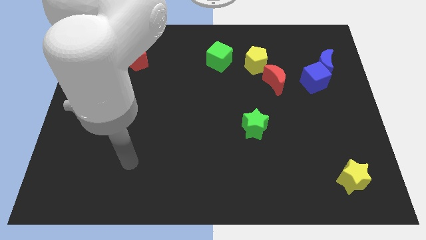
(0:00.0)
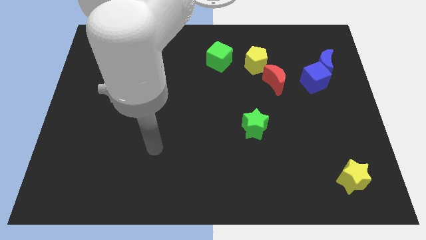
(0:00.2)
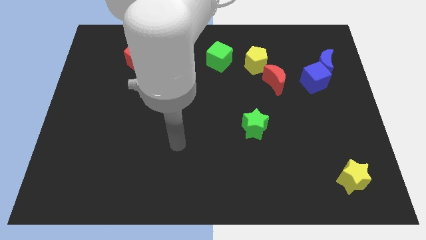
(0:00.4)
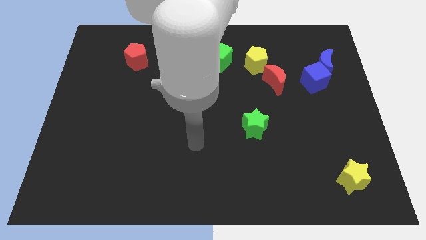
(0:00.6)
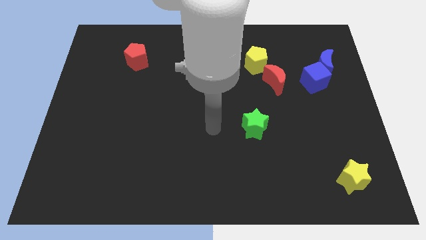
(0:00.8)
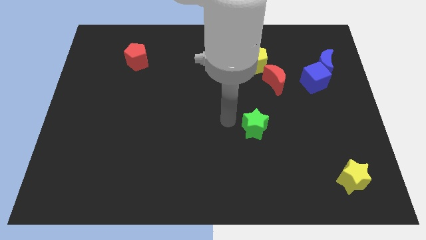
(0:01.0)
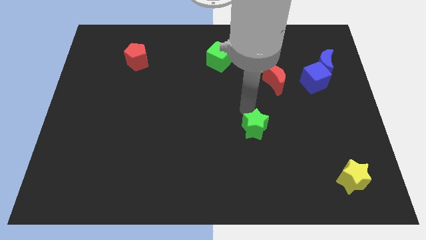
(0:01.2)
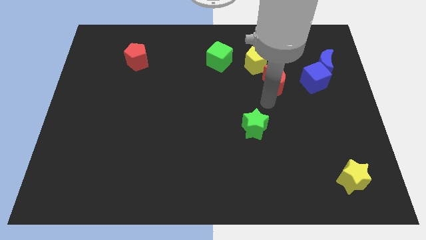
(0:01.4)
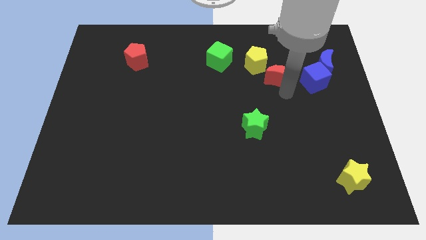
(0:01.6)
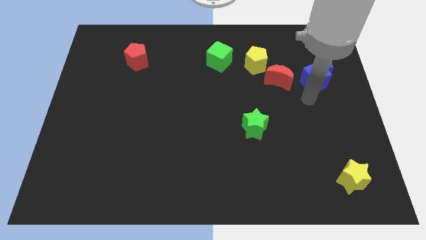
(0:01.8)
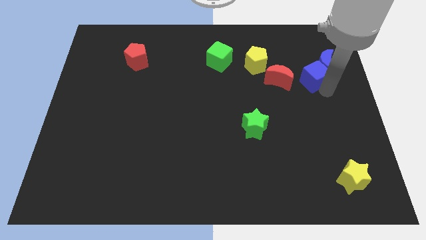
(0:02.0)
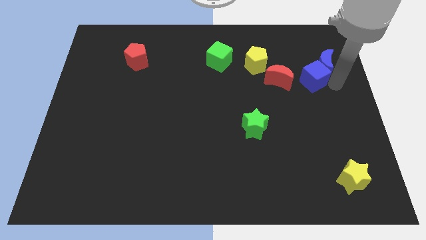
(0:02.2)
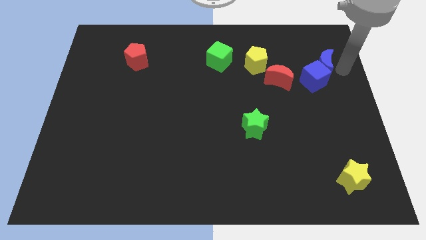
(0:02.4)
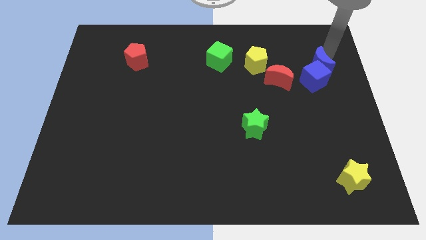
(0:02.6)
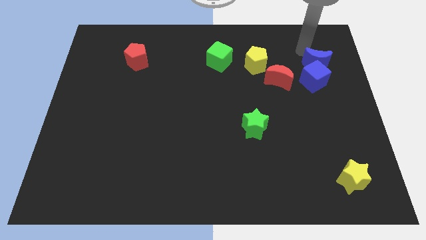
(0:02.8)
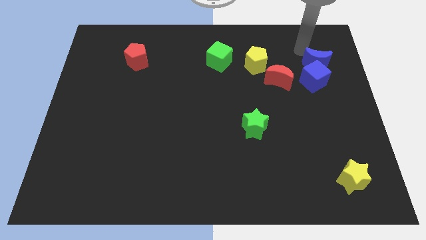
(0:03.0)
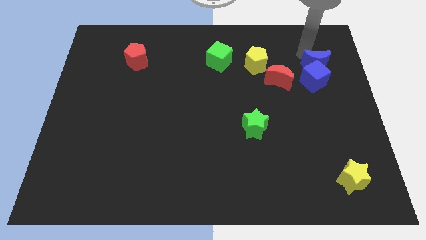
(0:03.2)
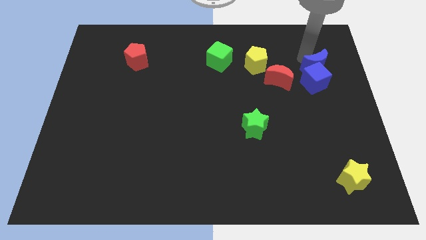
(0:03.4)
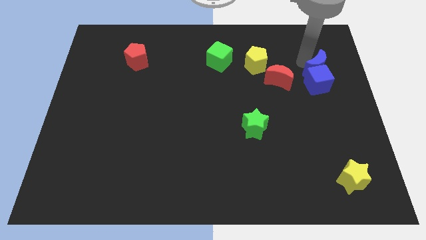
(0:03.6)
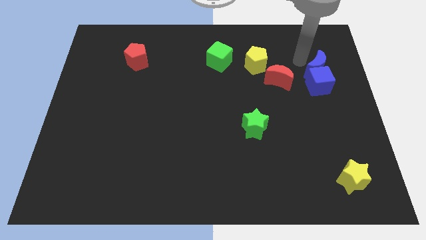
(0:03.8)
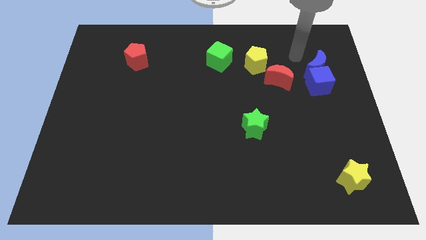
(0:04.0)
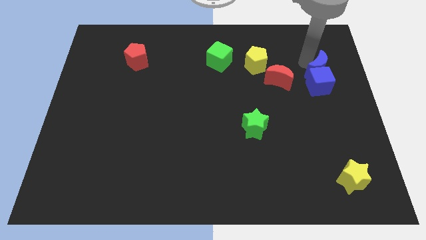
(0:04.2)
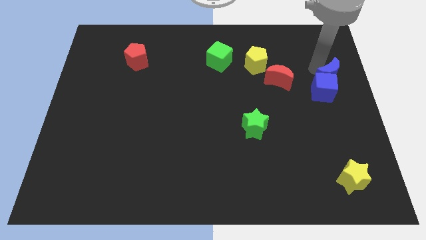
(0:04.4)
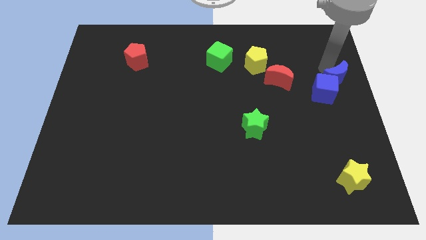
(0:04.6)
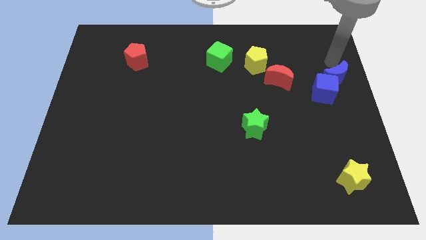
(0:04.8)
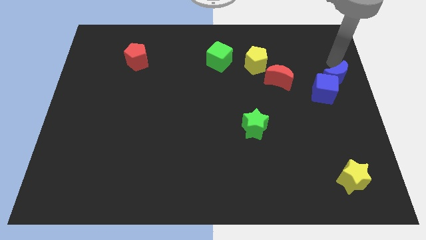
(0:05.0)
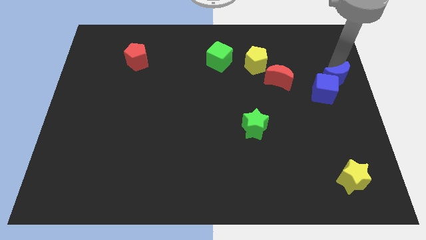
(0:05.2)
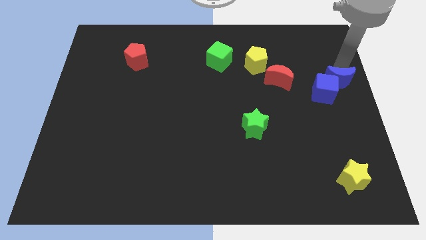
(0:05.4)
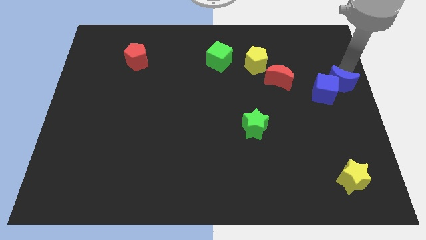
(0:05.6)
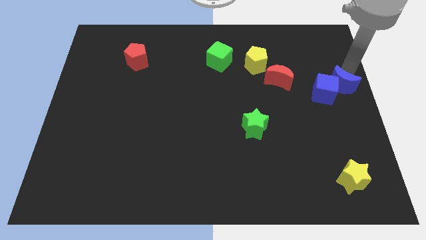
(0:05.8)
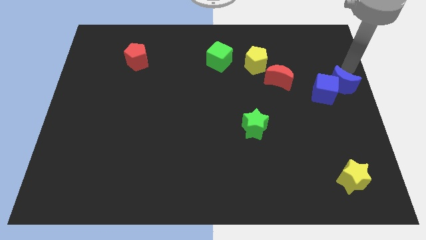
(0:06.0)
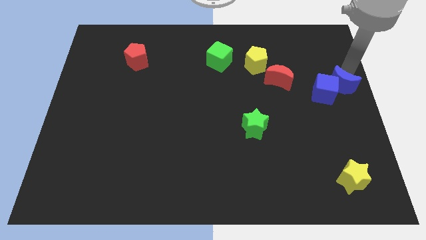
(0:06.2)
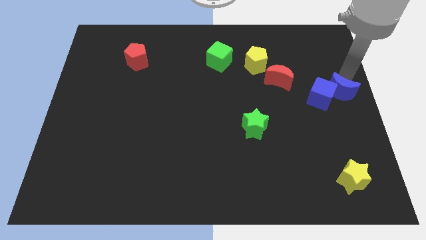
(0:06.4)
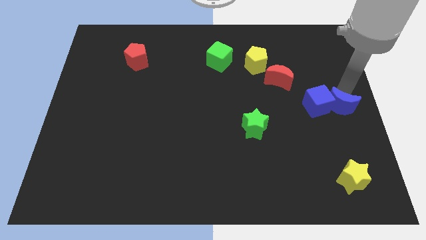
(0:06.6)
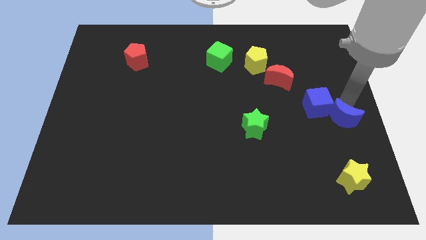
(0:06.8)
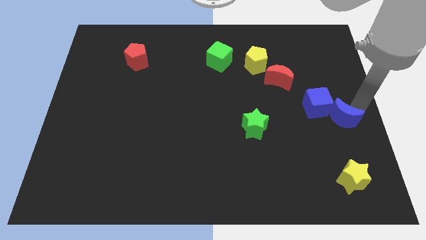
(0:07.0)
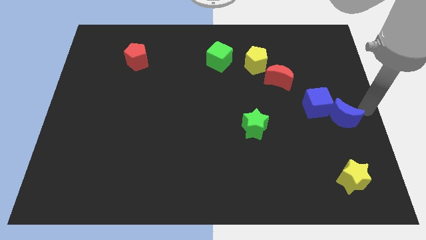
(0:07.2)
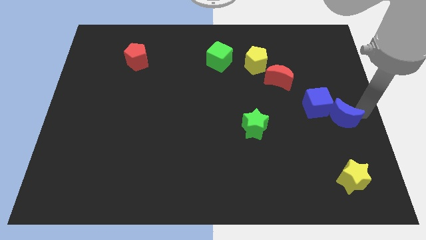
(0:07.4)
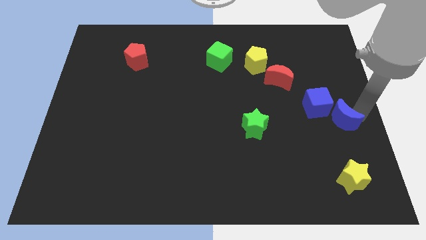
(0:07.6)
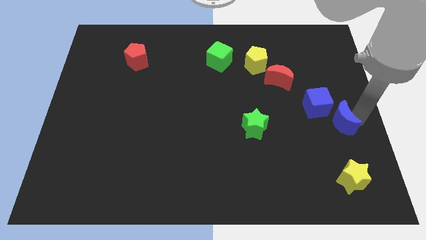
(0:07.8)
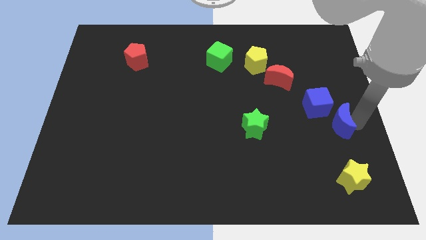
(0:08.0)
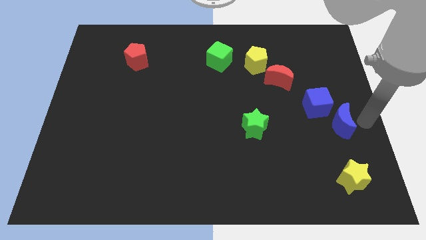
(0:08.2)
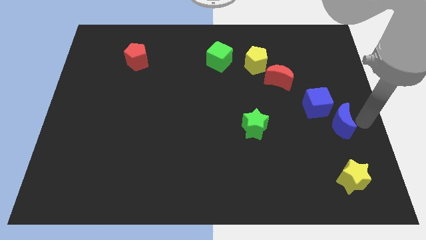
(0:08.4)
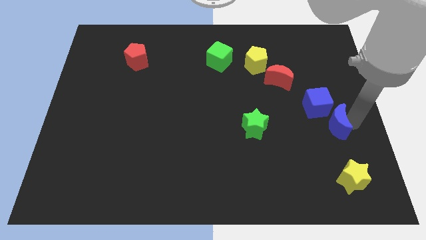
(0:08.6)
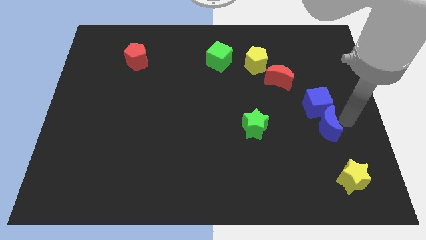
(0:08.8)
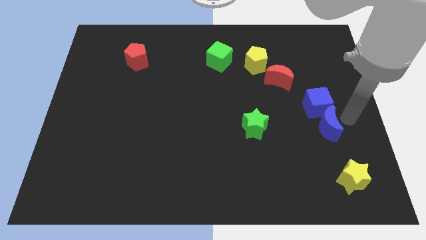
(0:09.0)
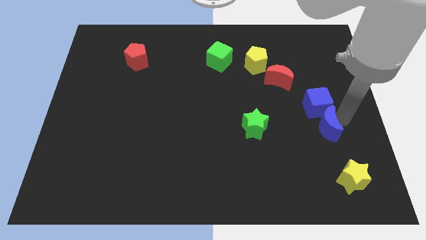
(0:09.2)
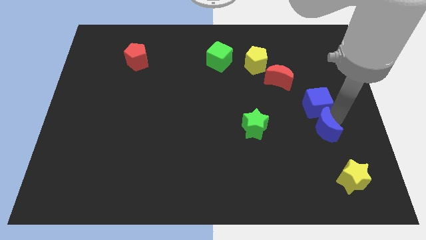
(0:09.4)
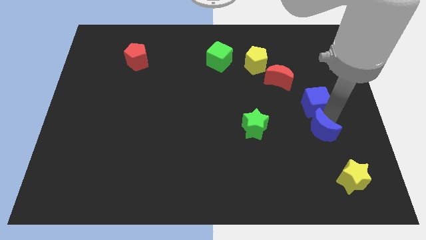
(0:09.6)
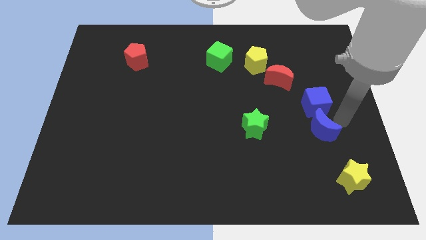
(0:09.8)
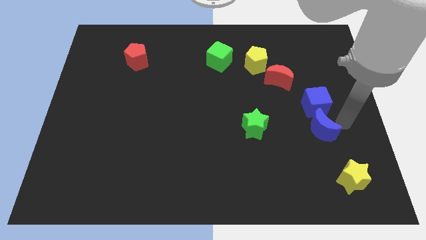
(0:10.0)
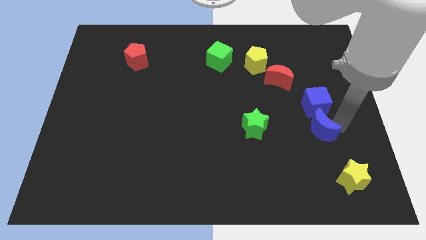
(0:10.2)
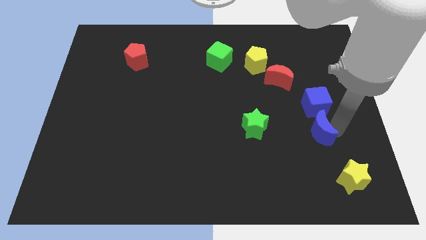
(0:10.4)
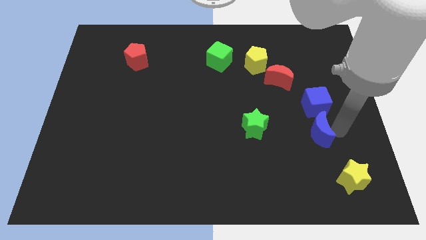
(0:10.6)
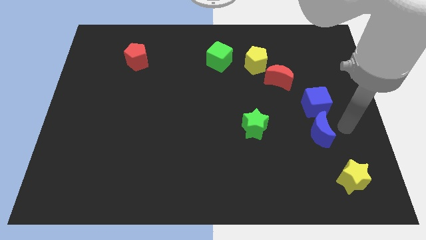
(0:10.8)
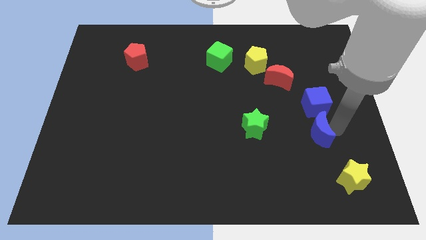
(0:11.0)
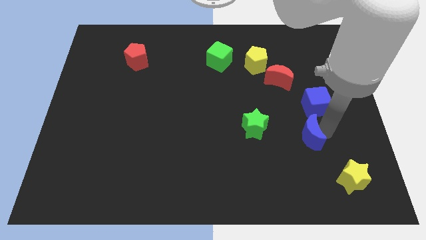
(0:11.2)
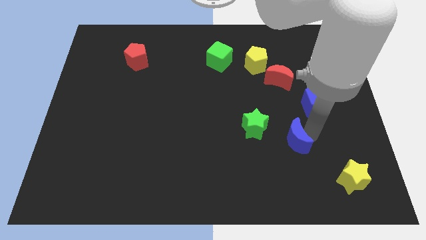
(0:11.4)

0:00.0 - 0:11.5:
put the blue moon diagonally down and to the right of the green star

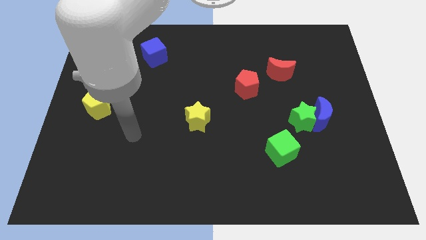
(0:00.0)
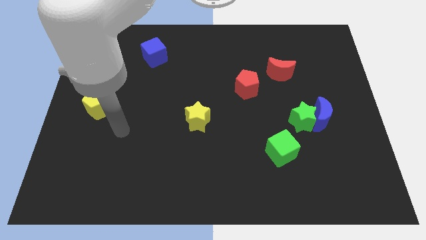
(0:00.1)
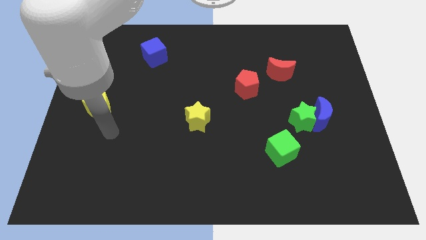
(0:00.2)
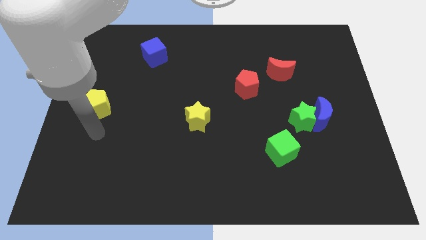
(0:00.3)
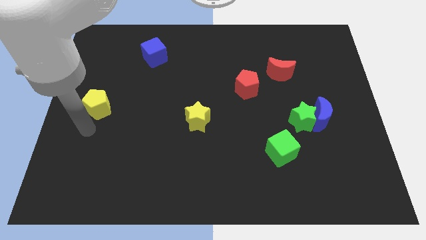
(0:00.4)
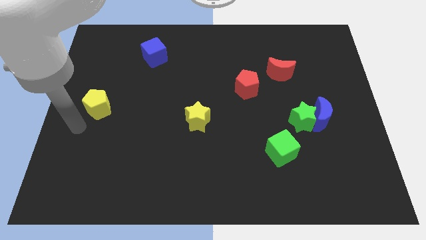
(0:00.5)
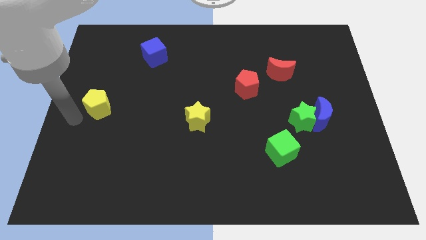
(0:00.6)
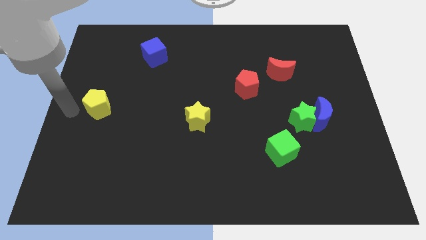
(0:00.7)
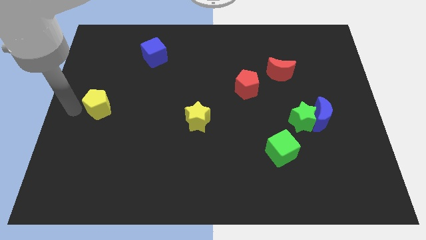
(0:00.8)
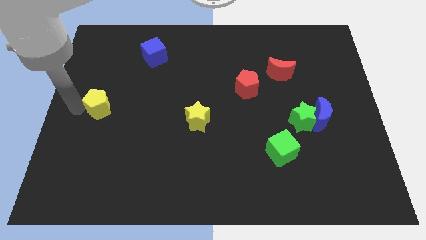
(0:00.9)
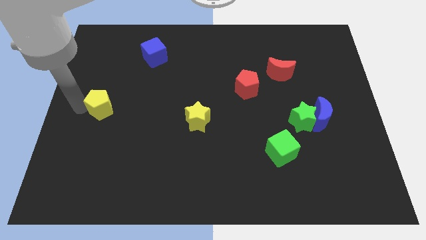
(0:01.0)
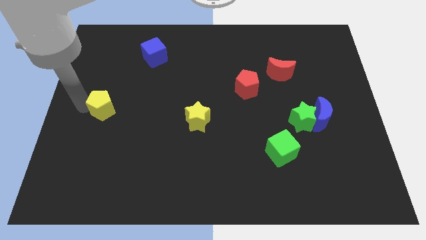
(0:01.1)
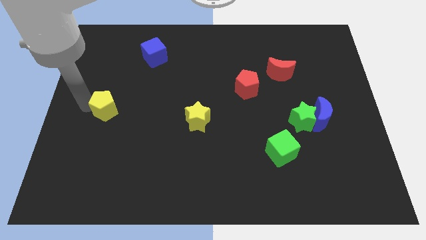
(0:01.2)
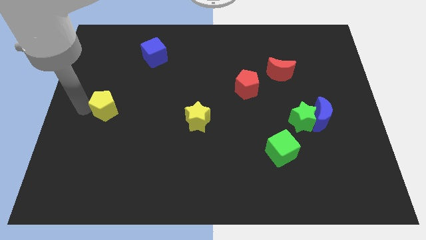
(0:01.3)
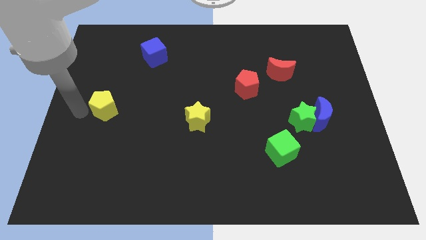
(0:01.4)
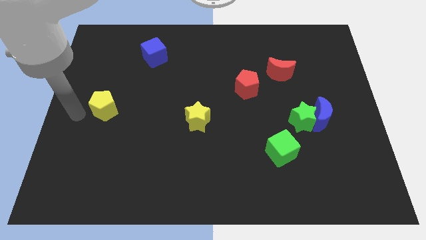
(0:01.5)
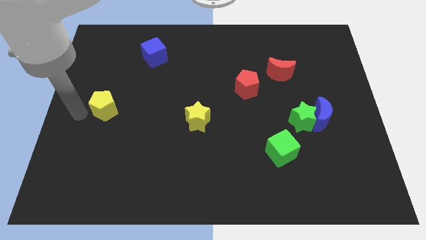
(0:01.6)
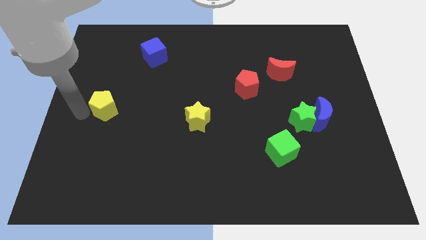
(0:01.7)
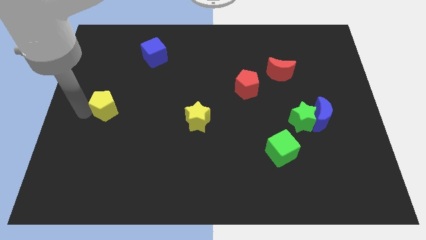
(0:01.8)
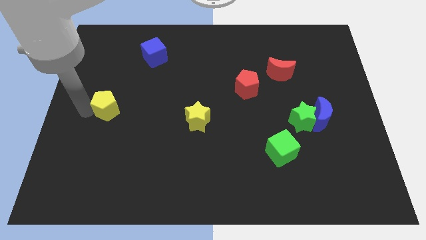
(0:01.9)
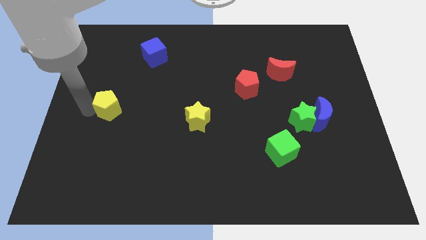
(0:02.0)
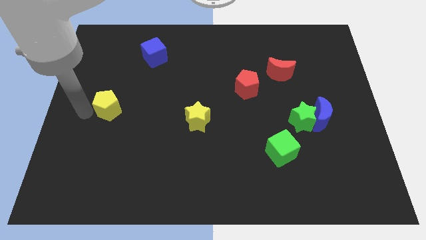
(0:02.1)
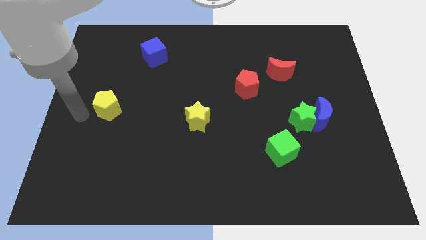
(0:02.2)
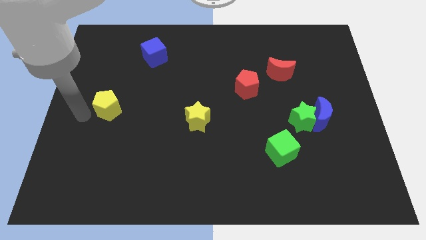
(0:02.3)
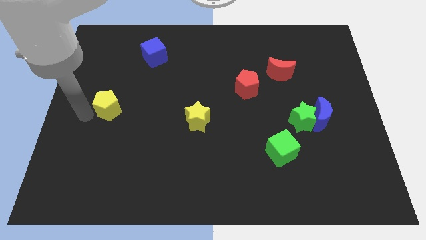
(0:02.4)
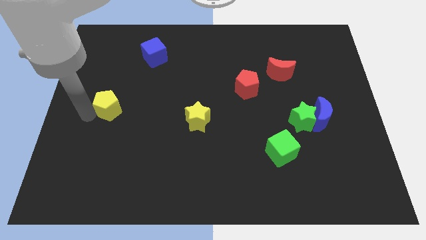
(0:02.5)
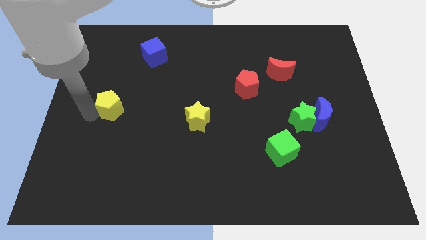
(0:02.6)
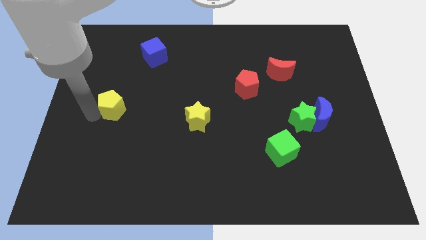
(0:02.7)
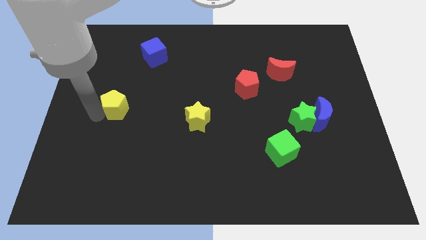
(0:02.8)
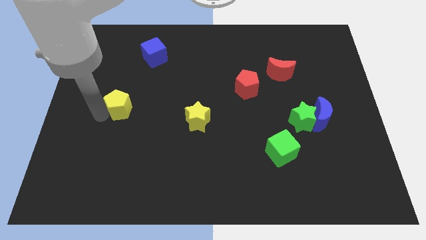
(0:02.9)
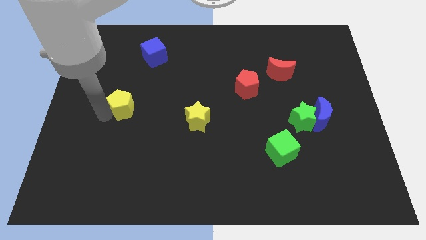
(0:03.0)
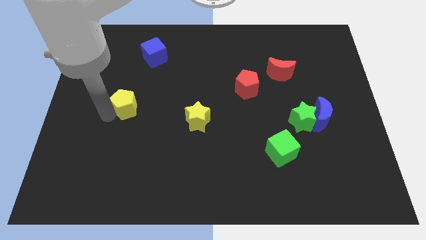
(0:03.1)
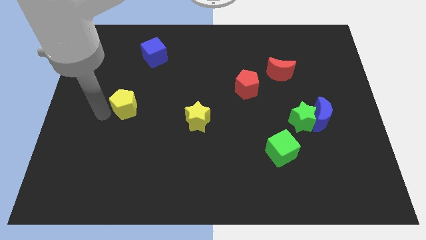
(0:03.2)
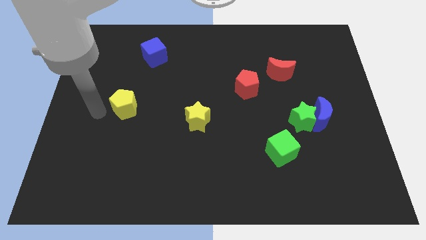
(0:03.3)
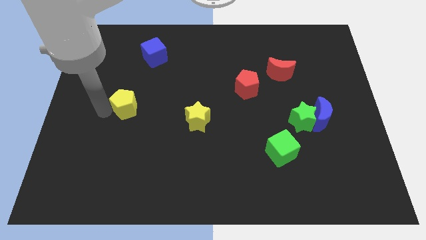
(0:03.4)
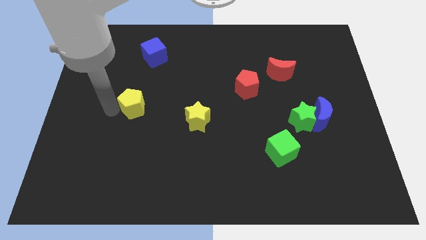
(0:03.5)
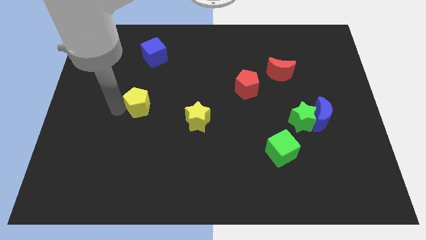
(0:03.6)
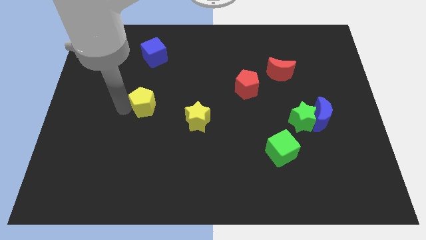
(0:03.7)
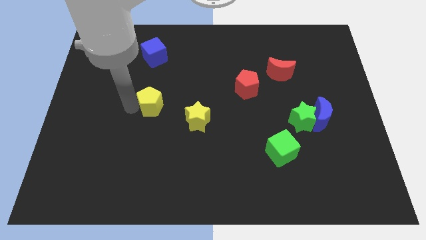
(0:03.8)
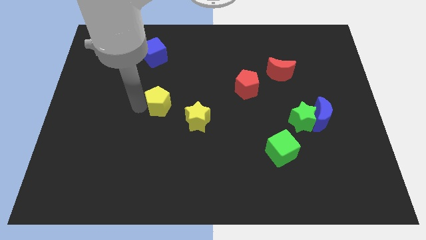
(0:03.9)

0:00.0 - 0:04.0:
put the yellow pentagon diagonally up and to the left of the yellow star
